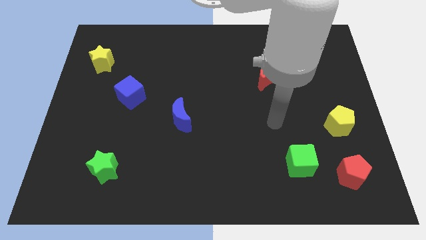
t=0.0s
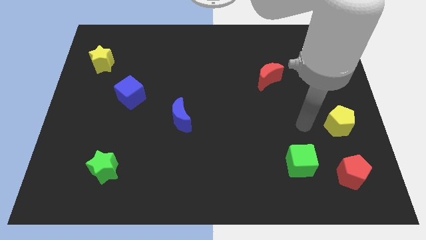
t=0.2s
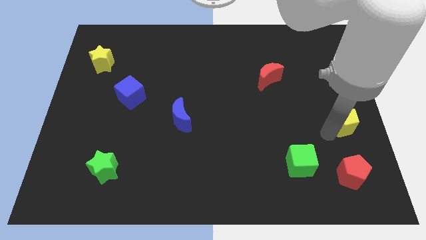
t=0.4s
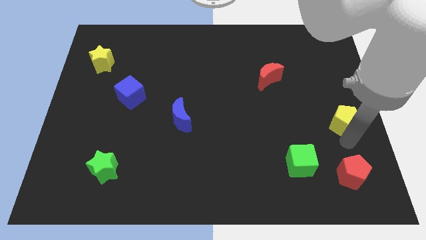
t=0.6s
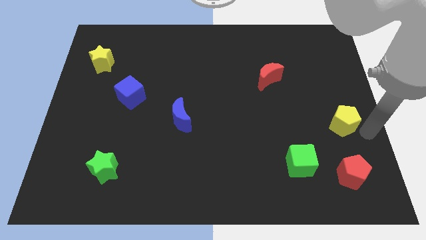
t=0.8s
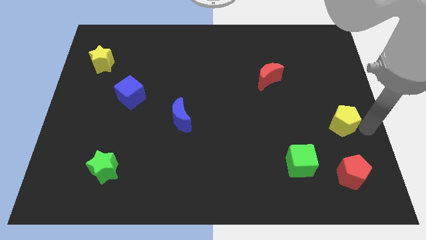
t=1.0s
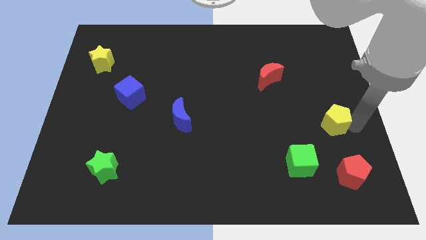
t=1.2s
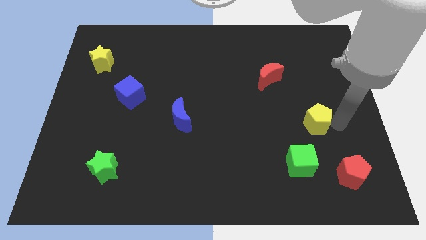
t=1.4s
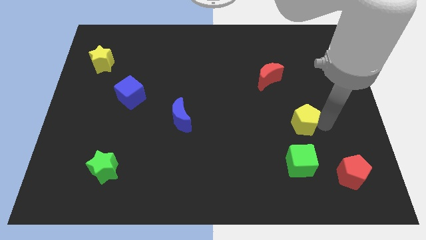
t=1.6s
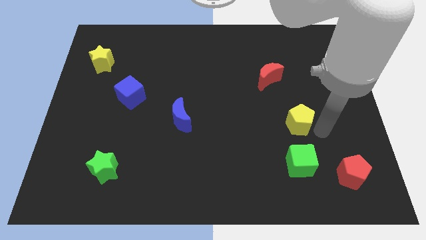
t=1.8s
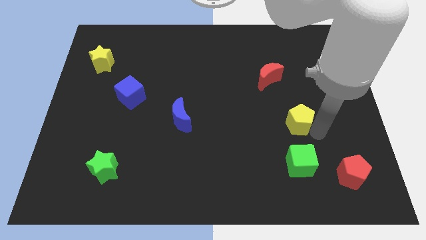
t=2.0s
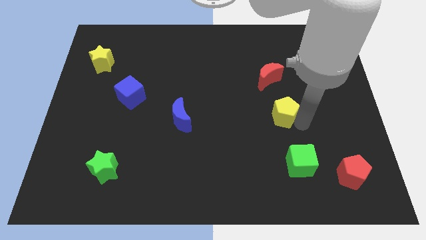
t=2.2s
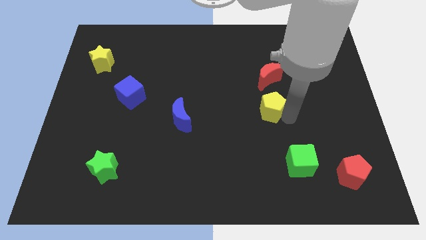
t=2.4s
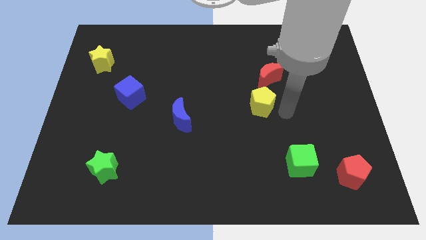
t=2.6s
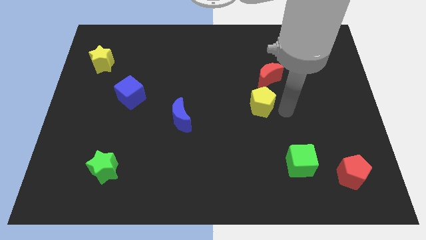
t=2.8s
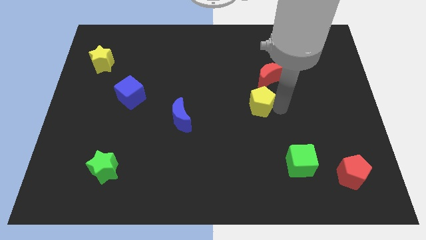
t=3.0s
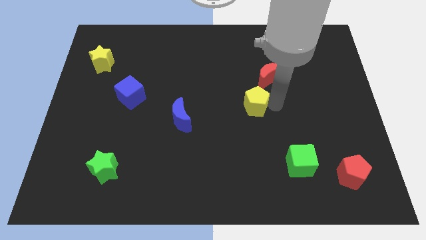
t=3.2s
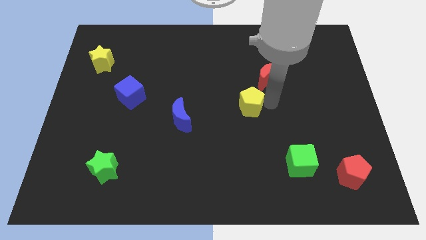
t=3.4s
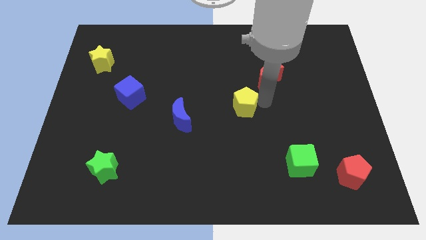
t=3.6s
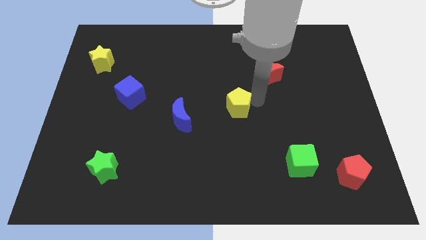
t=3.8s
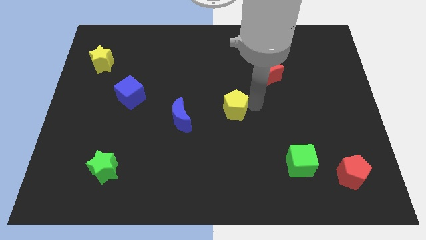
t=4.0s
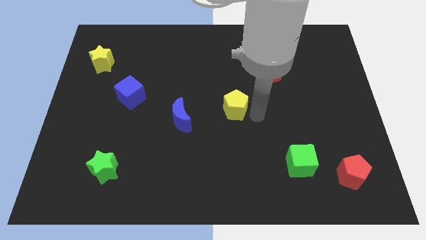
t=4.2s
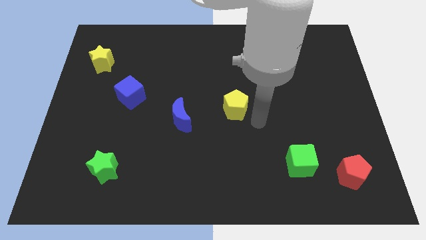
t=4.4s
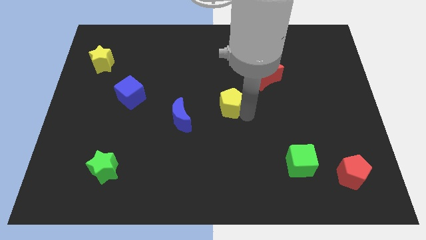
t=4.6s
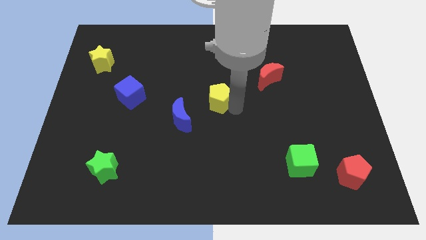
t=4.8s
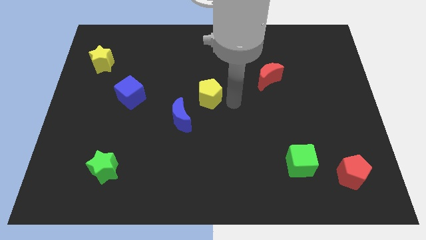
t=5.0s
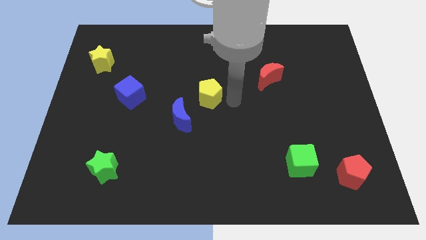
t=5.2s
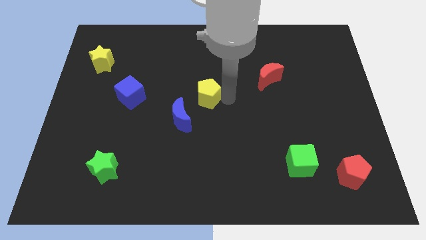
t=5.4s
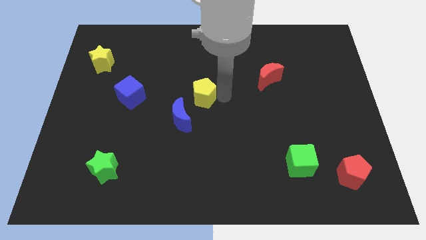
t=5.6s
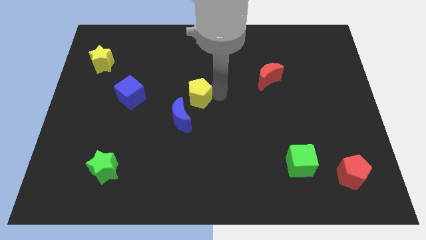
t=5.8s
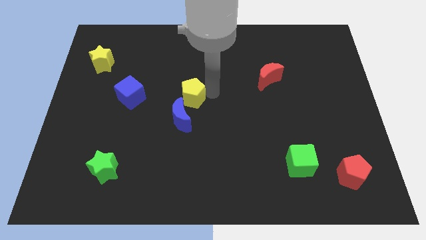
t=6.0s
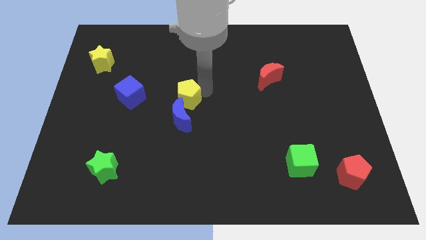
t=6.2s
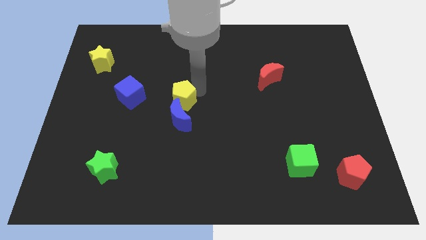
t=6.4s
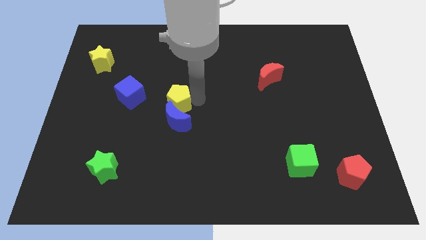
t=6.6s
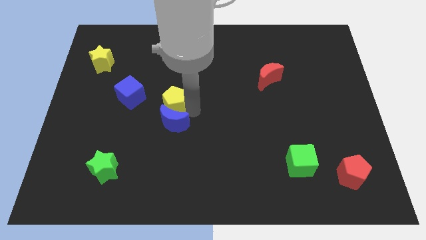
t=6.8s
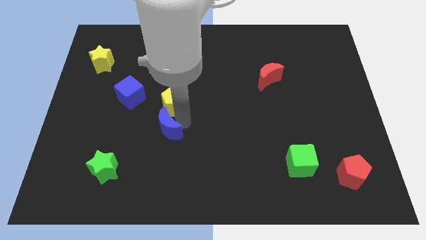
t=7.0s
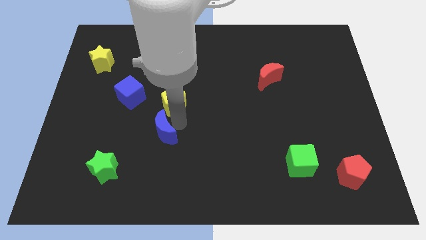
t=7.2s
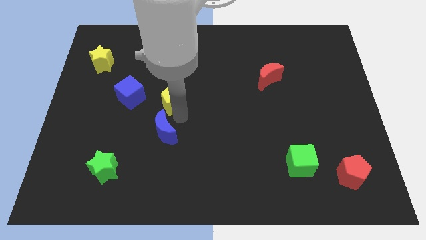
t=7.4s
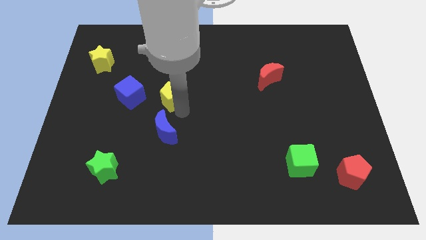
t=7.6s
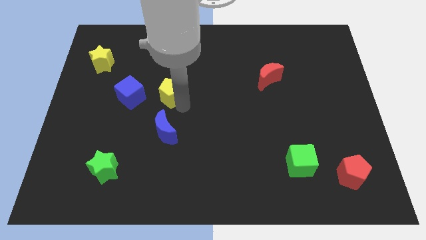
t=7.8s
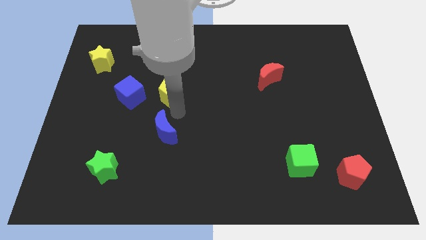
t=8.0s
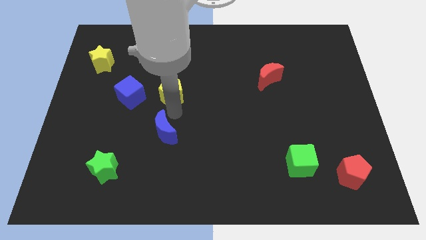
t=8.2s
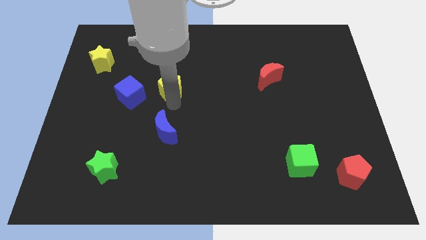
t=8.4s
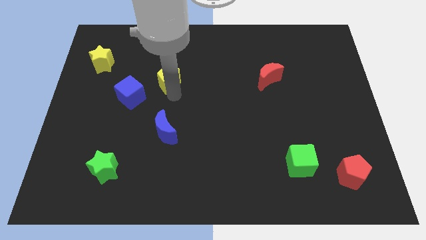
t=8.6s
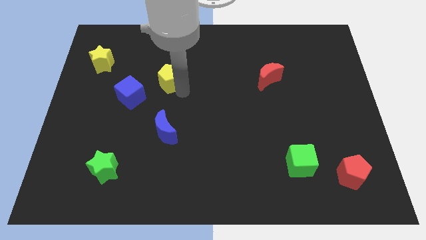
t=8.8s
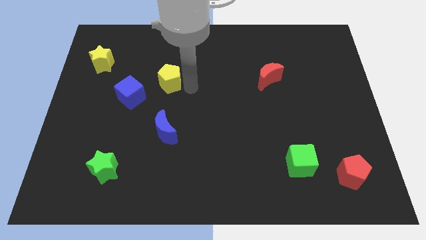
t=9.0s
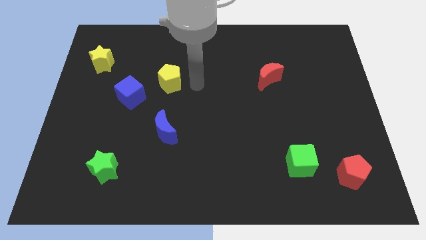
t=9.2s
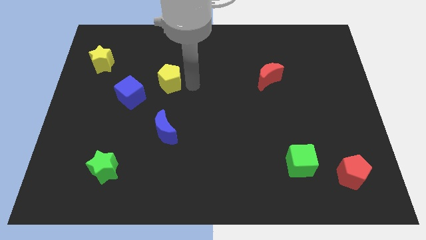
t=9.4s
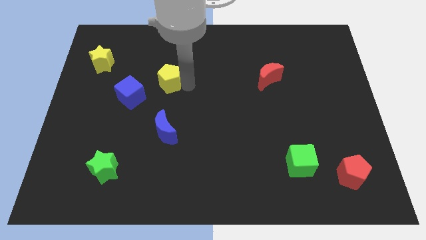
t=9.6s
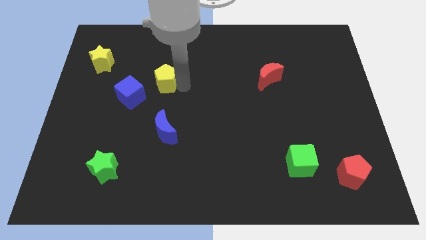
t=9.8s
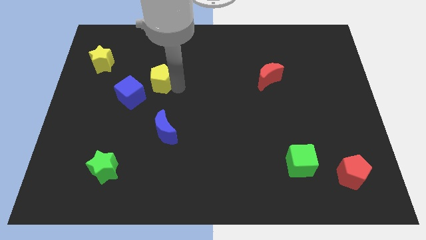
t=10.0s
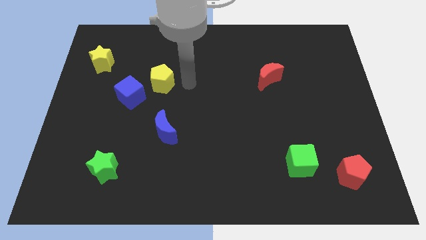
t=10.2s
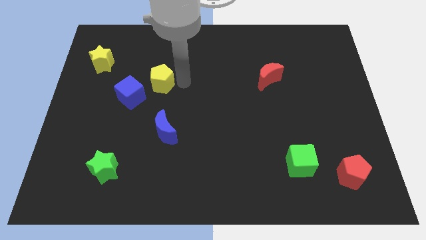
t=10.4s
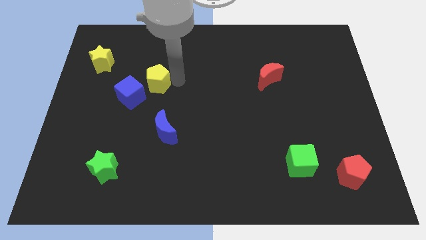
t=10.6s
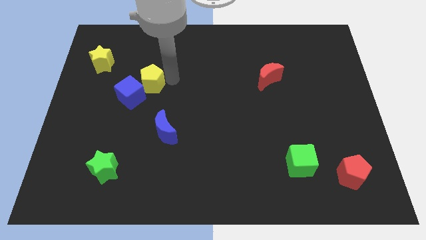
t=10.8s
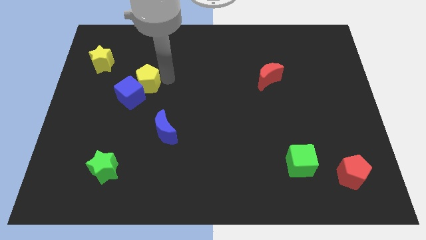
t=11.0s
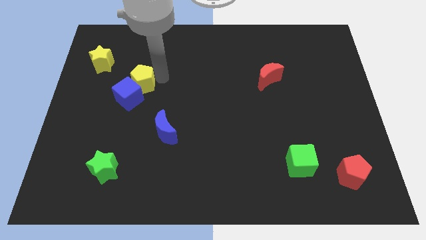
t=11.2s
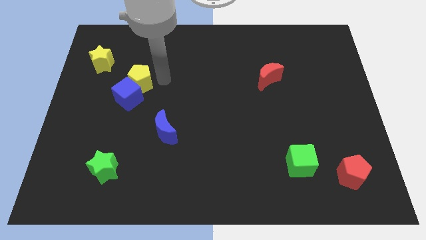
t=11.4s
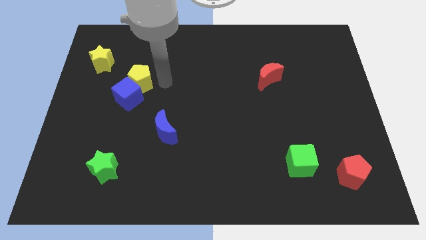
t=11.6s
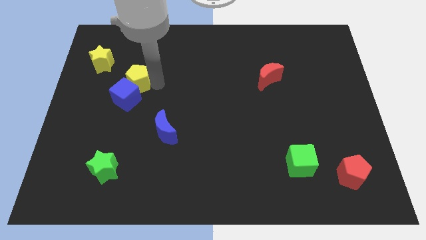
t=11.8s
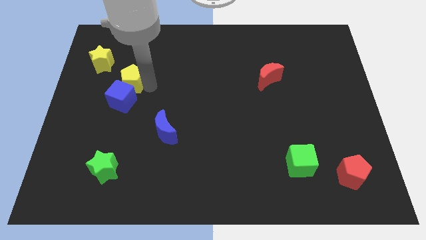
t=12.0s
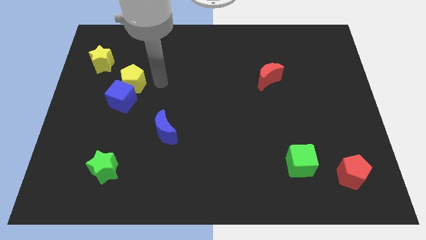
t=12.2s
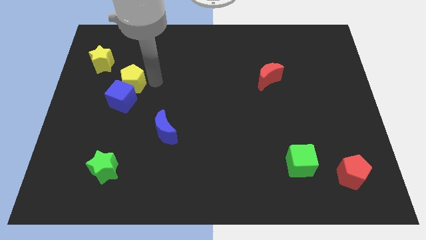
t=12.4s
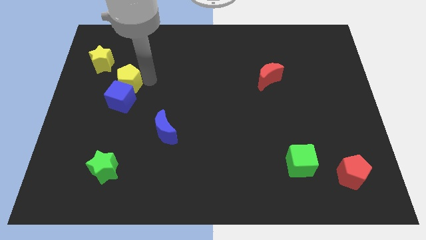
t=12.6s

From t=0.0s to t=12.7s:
put the yellow pentagon diagonally up and to the left of the blue cube
